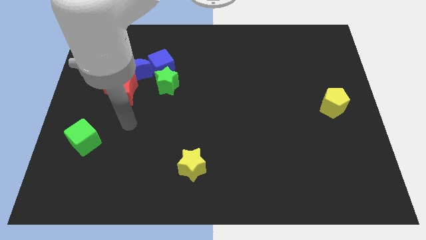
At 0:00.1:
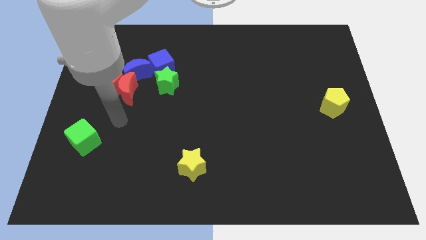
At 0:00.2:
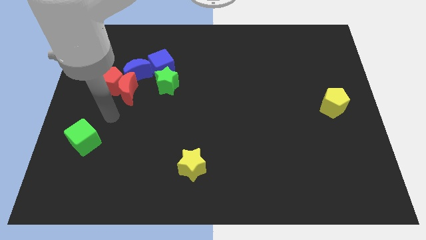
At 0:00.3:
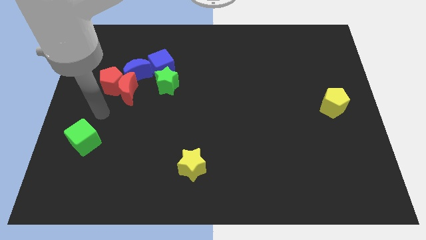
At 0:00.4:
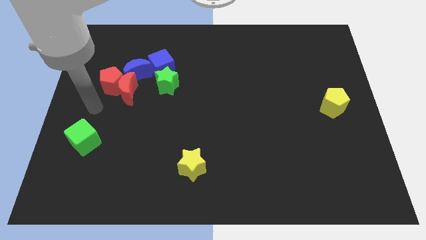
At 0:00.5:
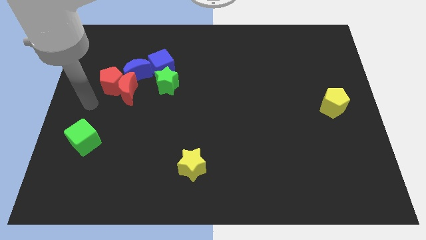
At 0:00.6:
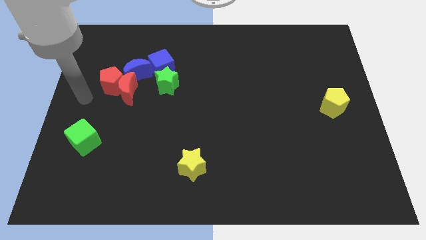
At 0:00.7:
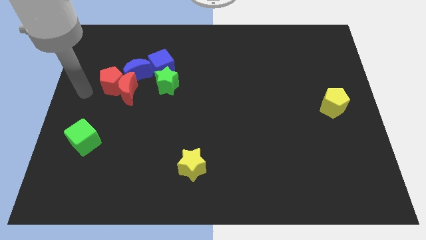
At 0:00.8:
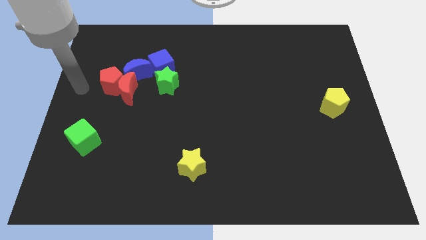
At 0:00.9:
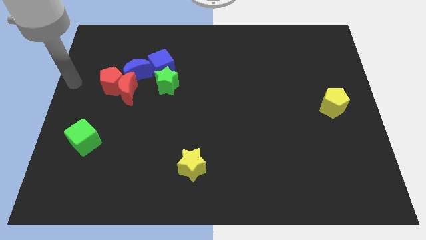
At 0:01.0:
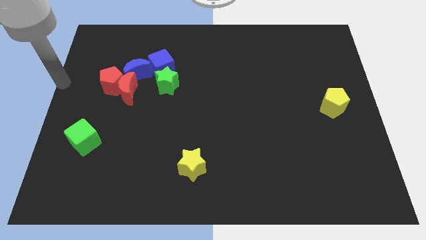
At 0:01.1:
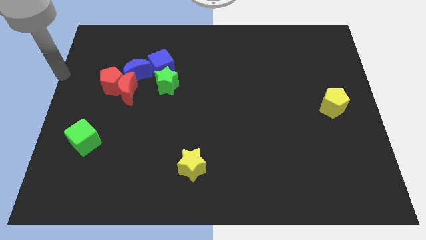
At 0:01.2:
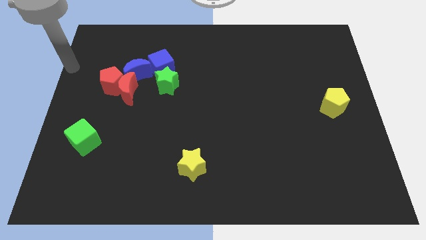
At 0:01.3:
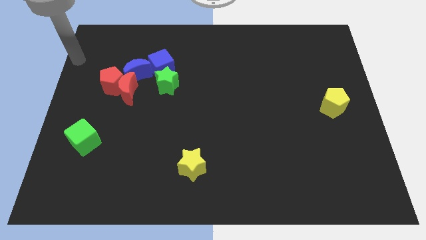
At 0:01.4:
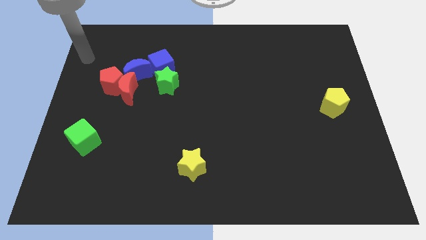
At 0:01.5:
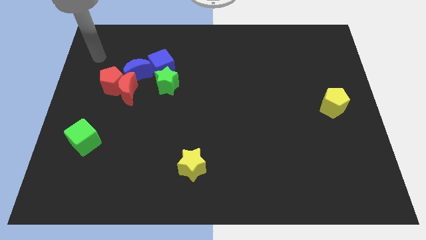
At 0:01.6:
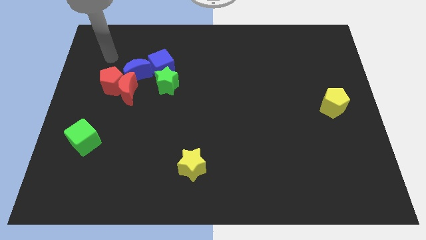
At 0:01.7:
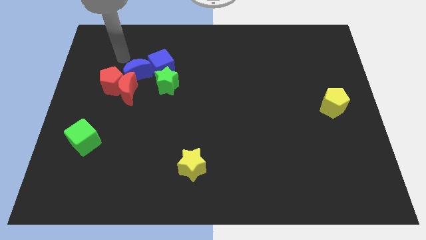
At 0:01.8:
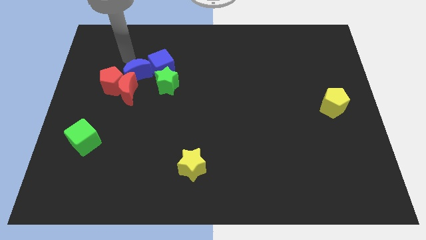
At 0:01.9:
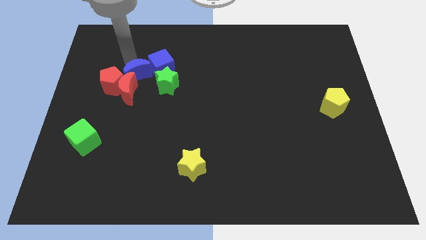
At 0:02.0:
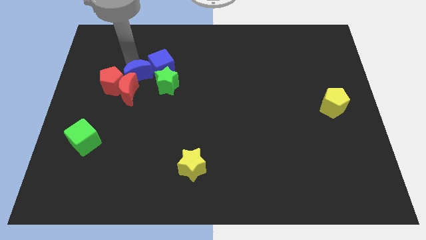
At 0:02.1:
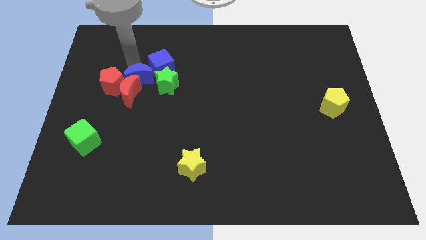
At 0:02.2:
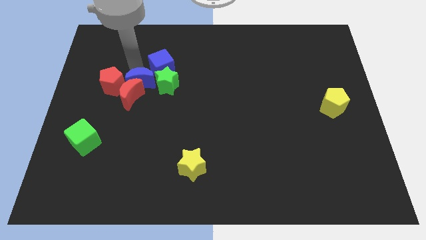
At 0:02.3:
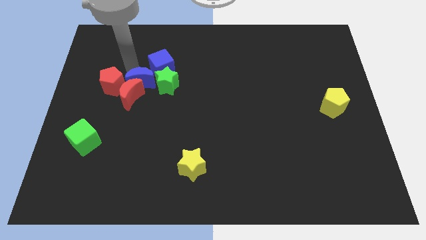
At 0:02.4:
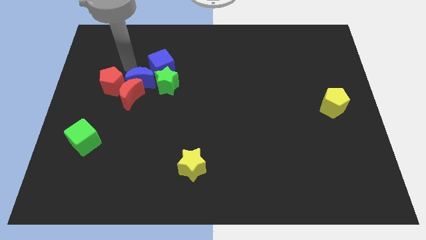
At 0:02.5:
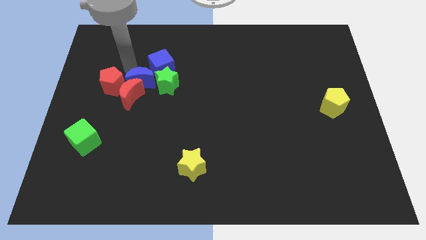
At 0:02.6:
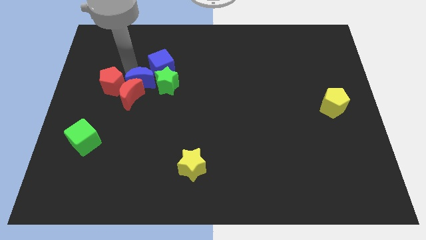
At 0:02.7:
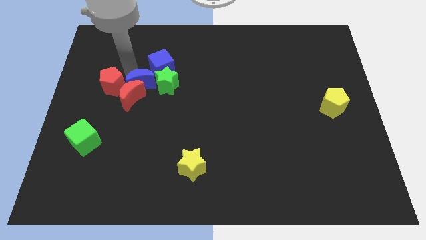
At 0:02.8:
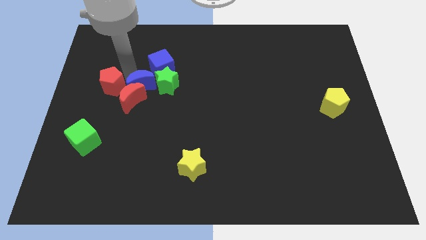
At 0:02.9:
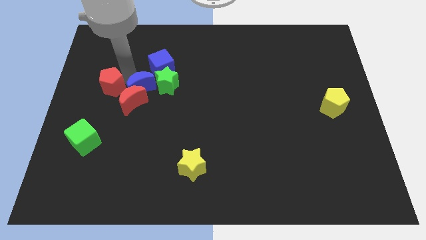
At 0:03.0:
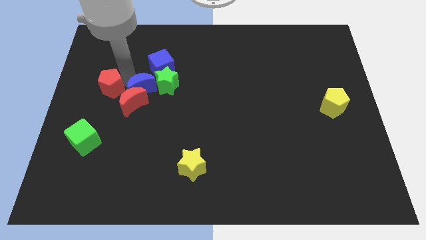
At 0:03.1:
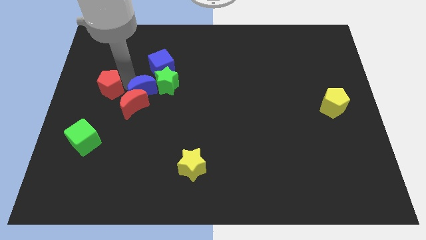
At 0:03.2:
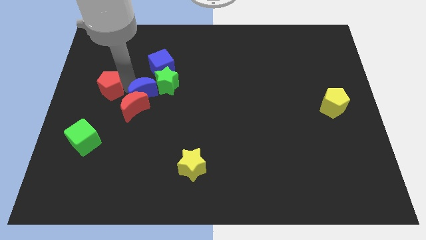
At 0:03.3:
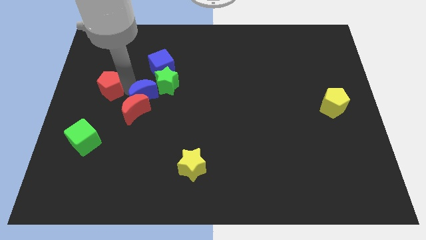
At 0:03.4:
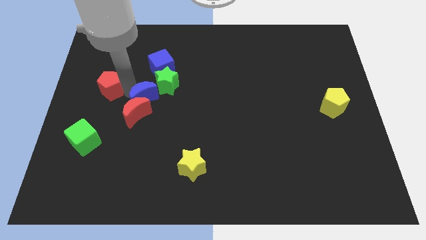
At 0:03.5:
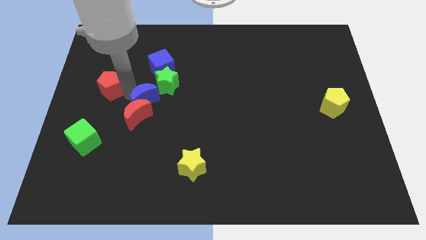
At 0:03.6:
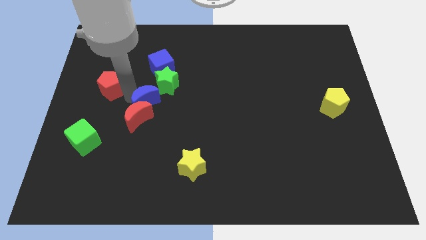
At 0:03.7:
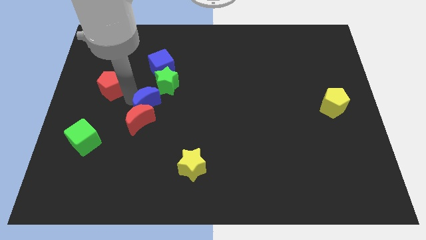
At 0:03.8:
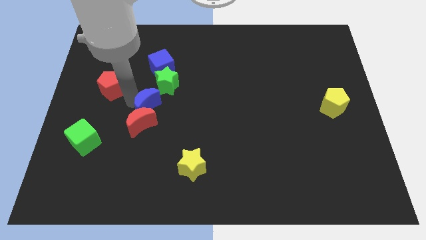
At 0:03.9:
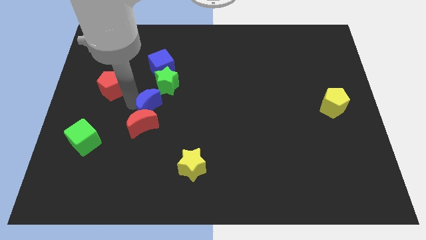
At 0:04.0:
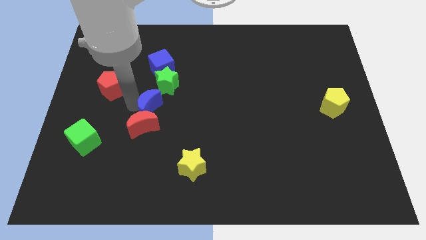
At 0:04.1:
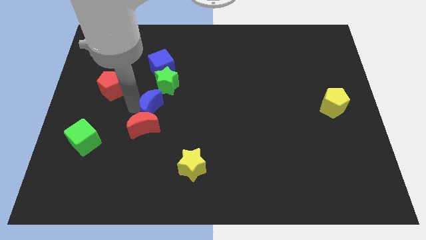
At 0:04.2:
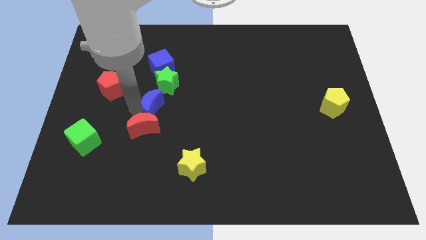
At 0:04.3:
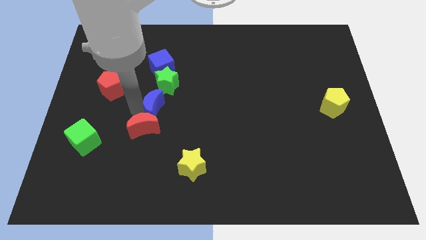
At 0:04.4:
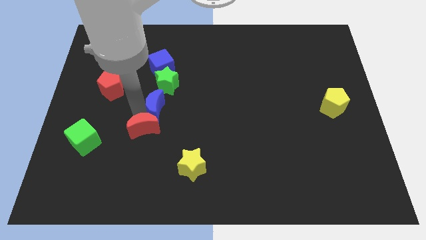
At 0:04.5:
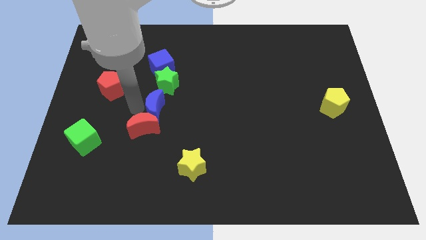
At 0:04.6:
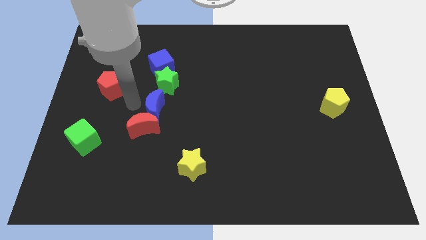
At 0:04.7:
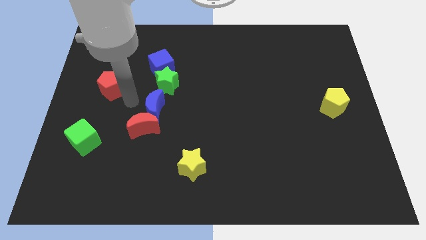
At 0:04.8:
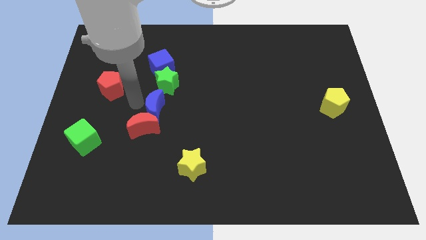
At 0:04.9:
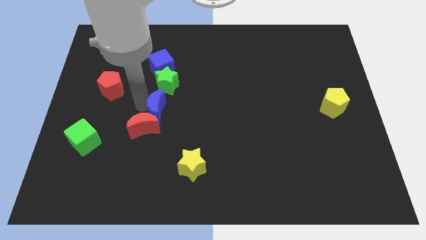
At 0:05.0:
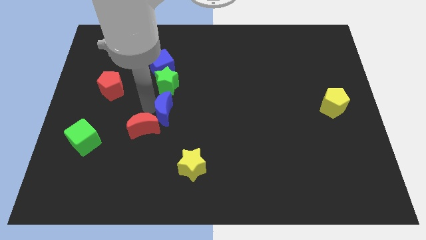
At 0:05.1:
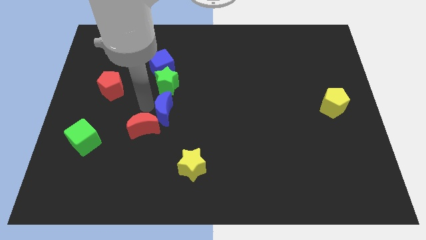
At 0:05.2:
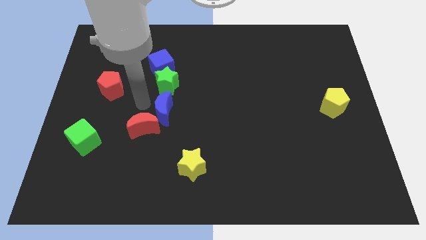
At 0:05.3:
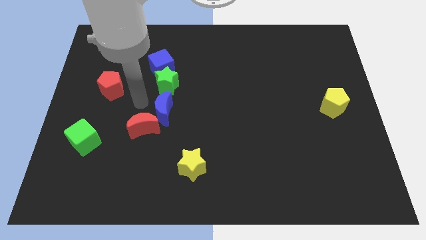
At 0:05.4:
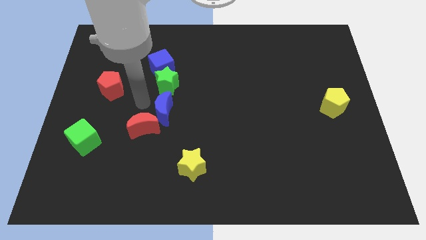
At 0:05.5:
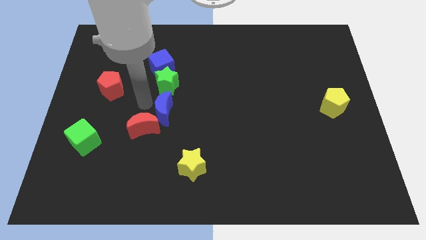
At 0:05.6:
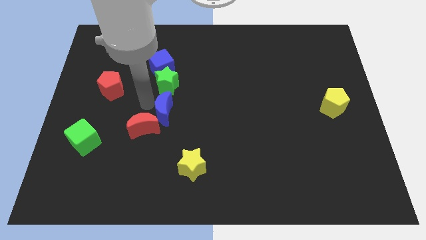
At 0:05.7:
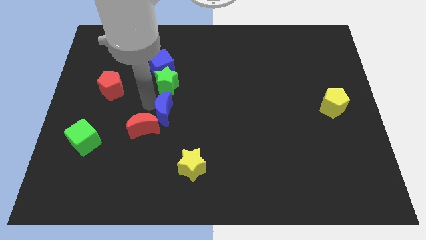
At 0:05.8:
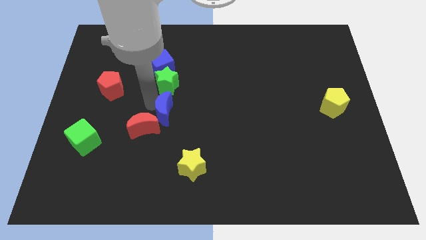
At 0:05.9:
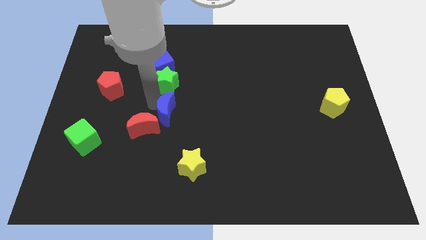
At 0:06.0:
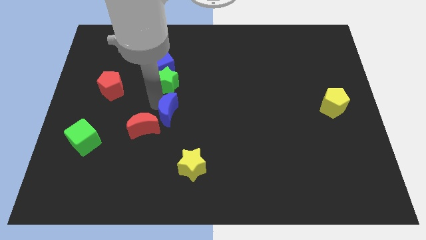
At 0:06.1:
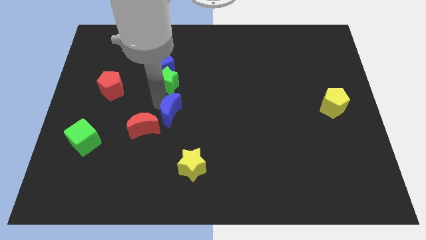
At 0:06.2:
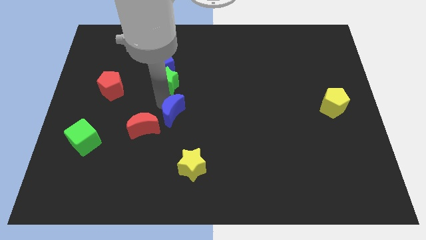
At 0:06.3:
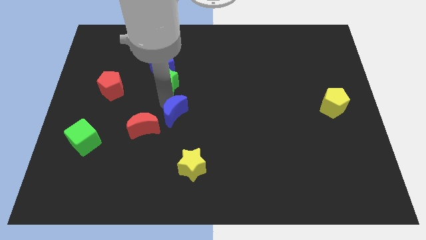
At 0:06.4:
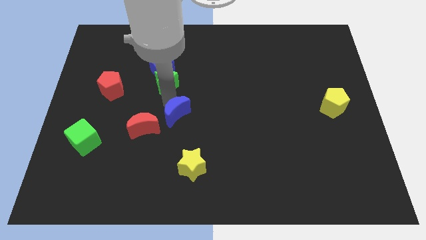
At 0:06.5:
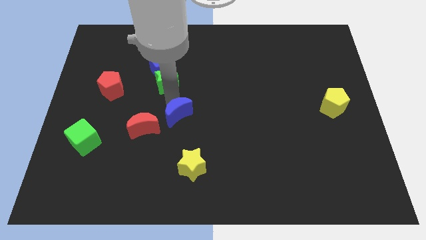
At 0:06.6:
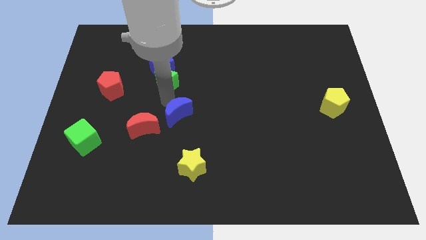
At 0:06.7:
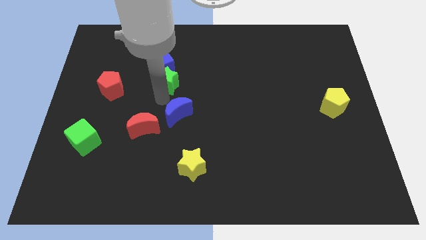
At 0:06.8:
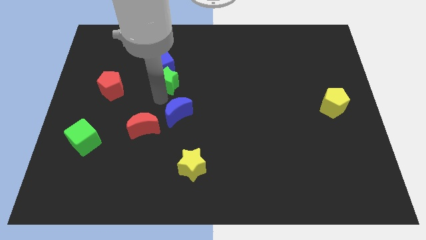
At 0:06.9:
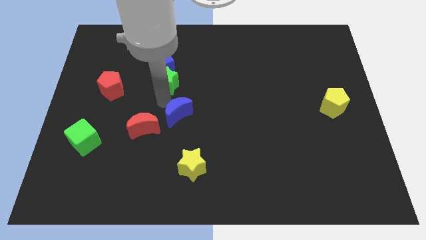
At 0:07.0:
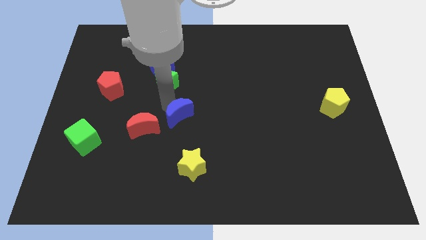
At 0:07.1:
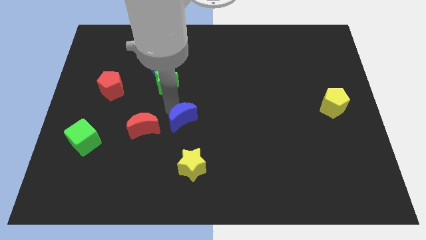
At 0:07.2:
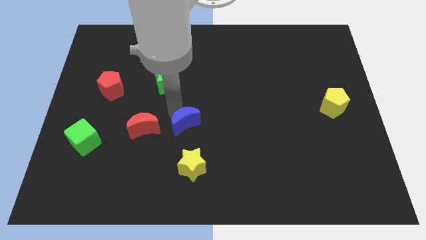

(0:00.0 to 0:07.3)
push the blue moon downwards and right

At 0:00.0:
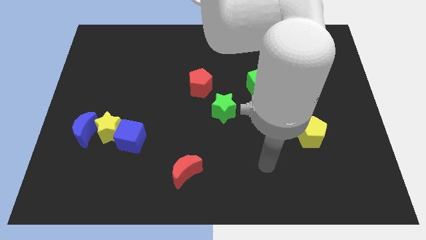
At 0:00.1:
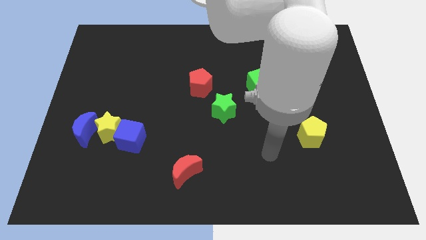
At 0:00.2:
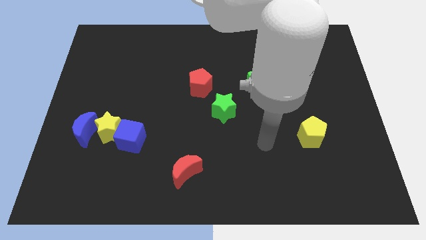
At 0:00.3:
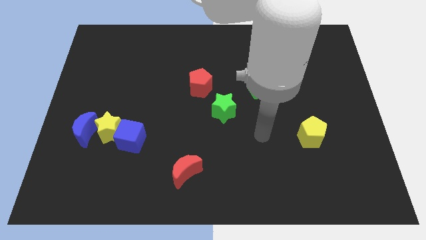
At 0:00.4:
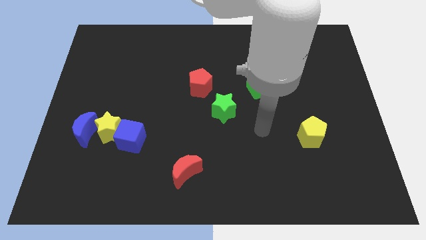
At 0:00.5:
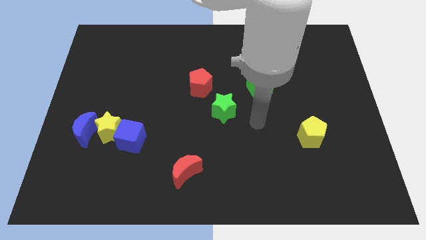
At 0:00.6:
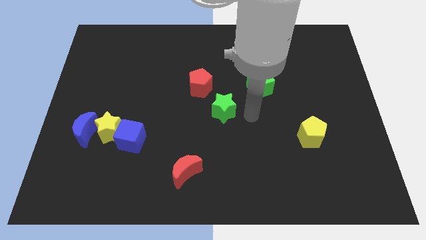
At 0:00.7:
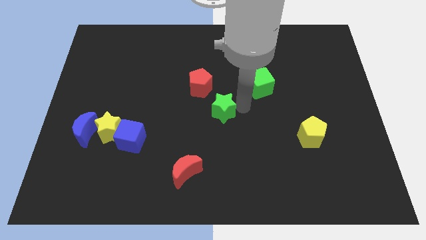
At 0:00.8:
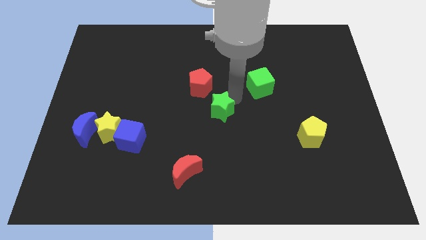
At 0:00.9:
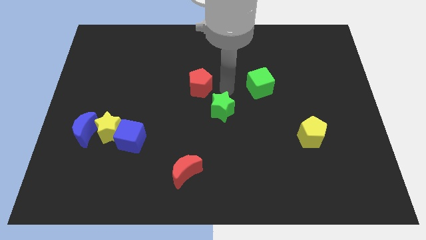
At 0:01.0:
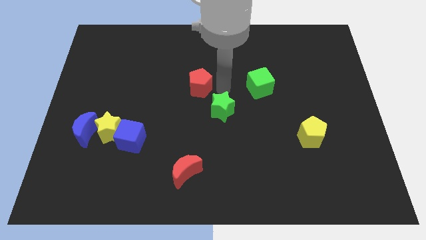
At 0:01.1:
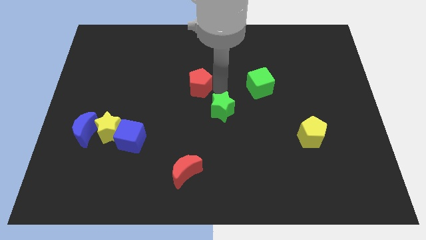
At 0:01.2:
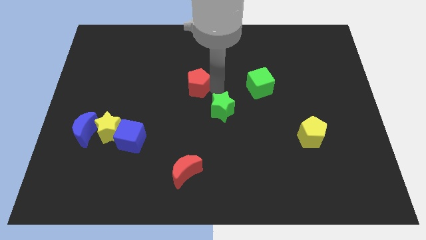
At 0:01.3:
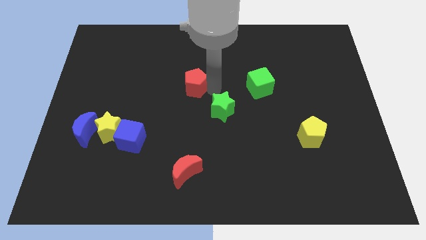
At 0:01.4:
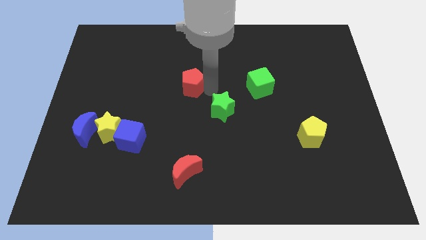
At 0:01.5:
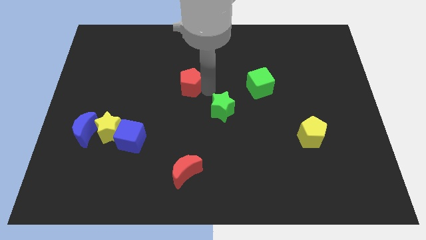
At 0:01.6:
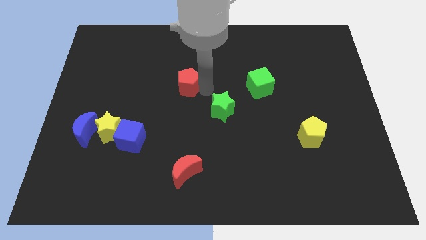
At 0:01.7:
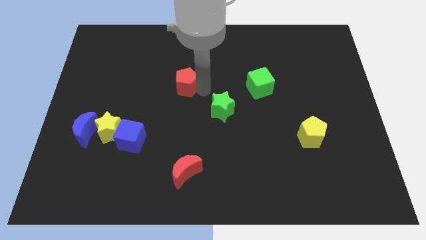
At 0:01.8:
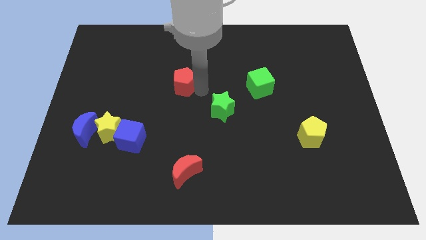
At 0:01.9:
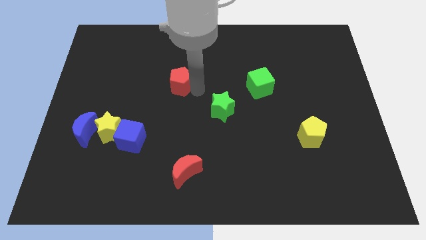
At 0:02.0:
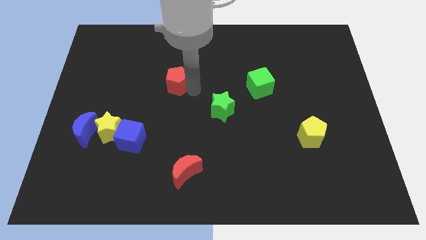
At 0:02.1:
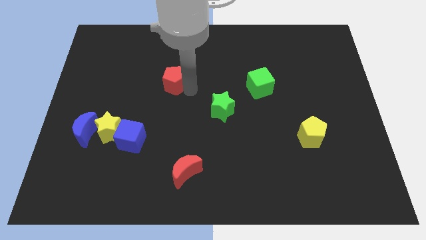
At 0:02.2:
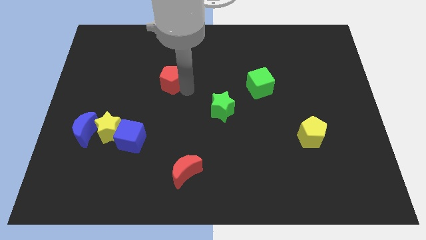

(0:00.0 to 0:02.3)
slide the red pentagon a little bit left
